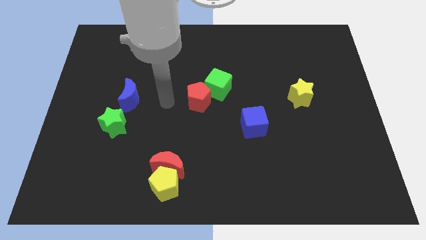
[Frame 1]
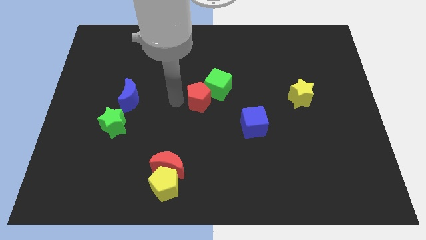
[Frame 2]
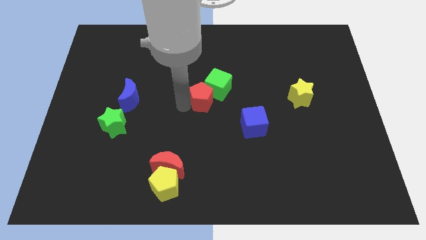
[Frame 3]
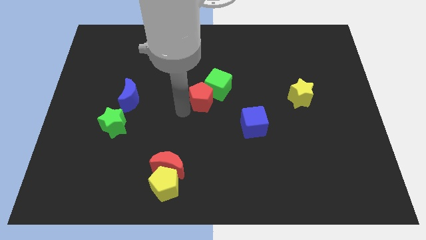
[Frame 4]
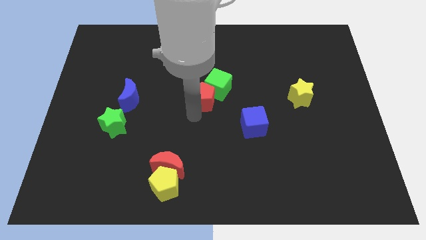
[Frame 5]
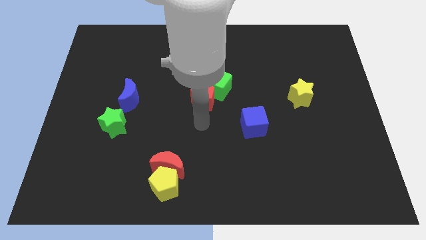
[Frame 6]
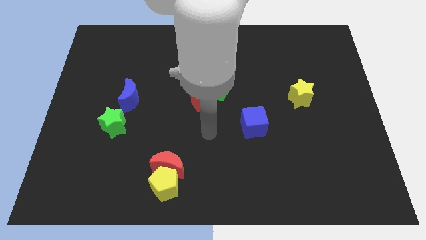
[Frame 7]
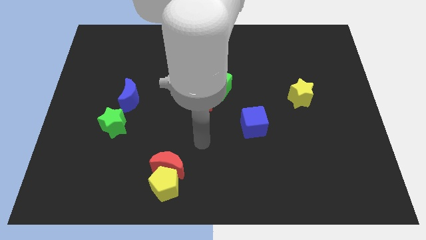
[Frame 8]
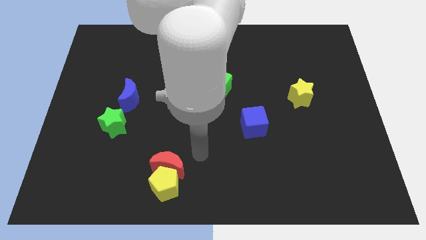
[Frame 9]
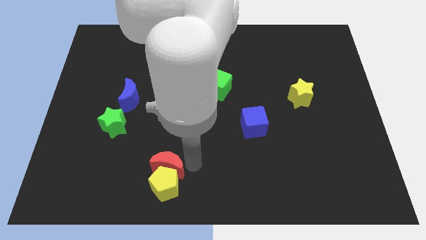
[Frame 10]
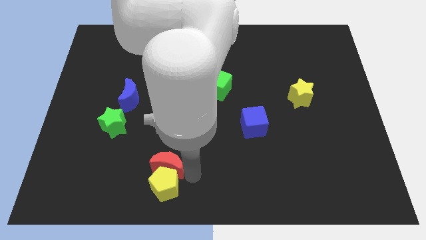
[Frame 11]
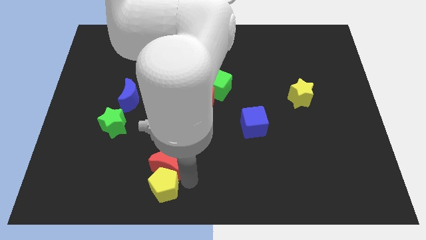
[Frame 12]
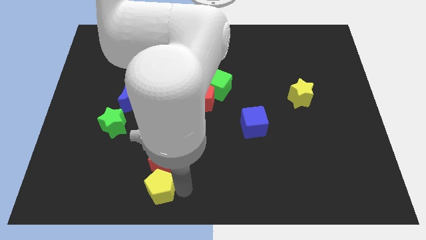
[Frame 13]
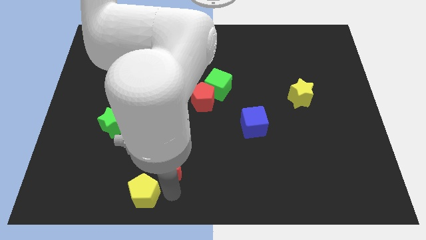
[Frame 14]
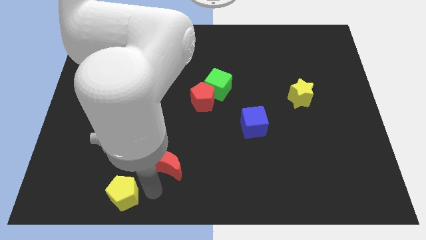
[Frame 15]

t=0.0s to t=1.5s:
pull the red moon apart from the yellow pentagon

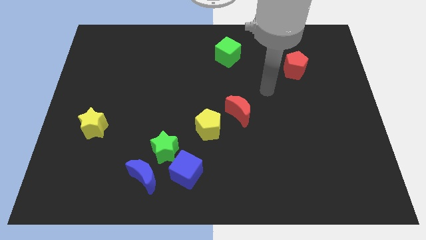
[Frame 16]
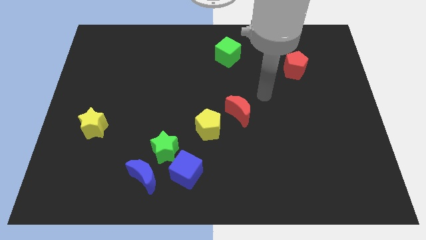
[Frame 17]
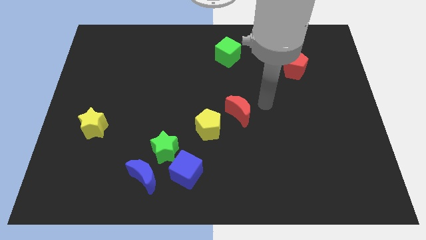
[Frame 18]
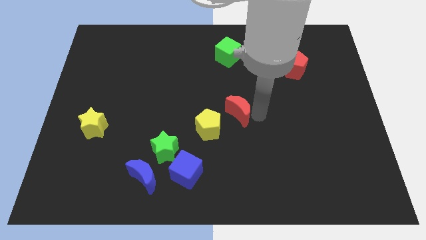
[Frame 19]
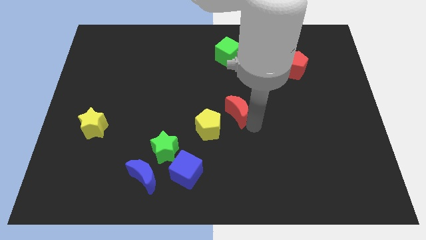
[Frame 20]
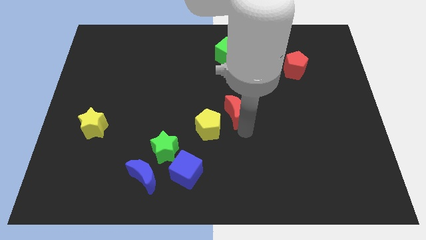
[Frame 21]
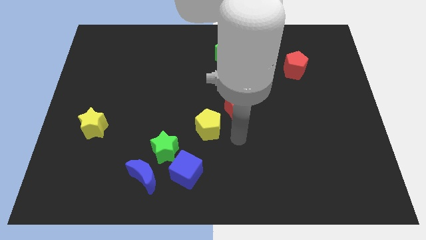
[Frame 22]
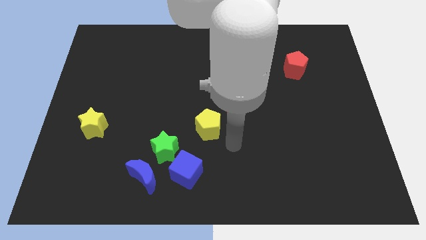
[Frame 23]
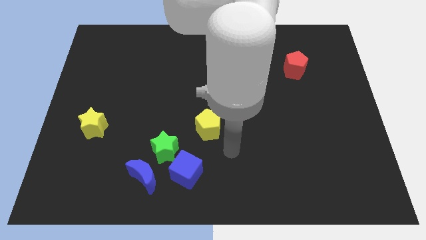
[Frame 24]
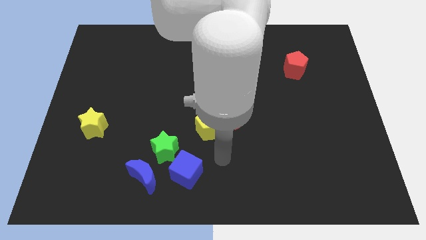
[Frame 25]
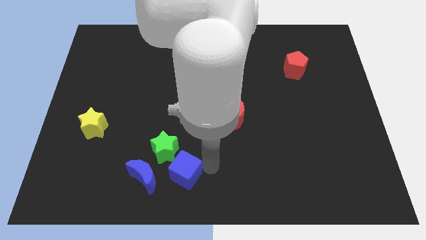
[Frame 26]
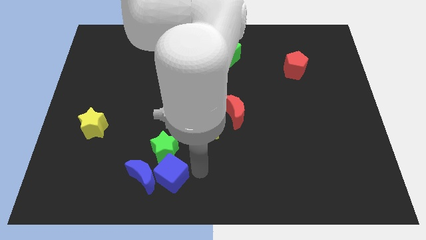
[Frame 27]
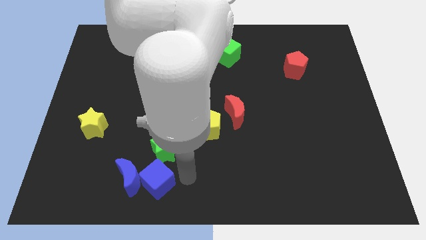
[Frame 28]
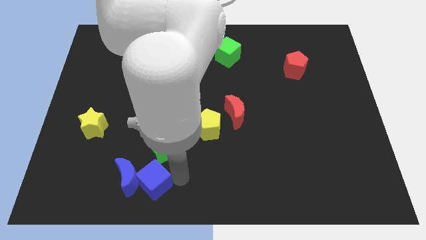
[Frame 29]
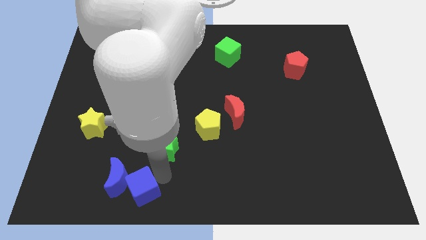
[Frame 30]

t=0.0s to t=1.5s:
separate the green star from the blue cube and blue moon

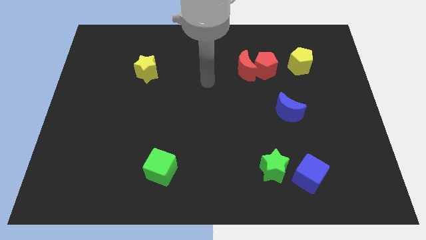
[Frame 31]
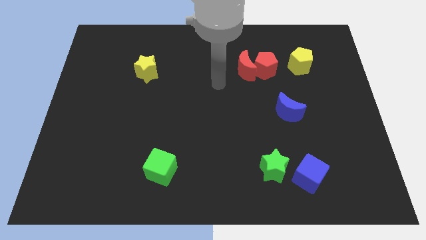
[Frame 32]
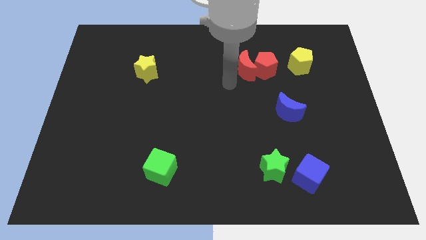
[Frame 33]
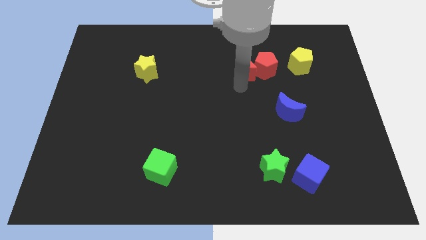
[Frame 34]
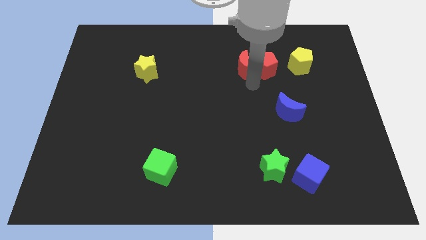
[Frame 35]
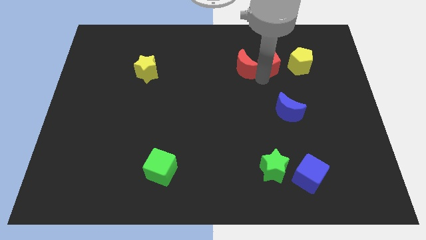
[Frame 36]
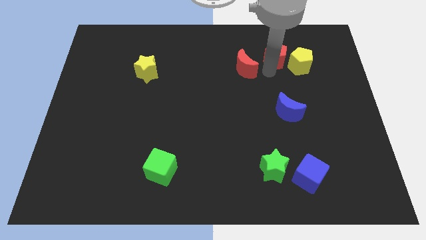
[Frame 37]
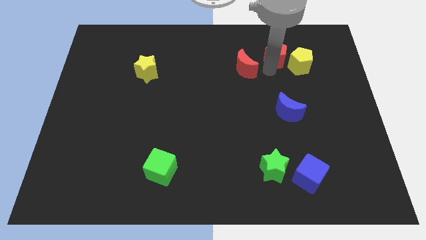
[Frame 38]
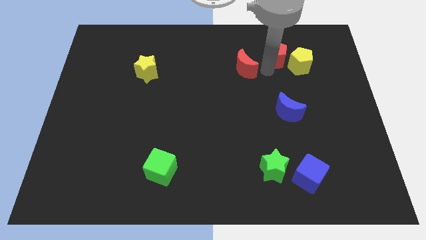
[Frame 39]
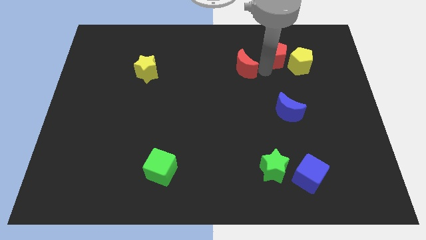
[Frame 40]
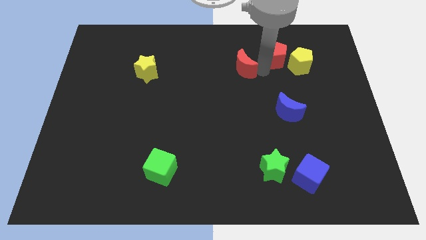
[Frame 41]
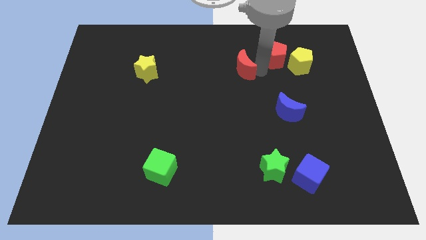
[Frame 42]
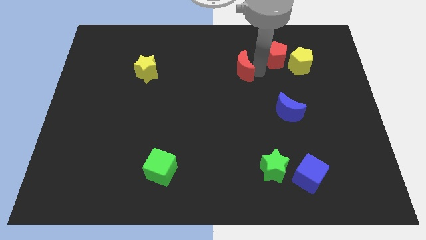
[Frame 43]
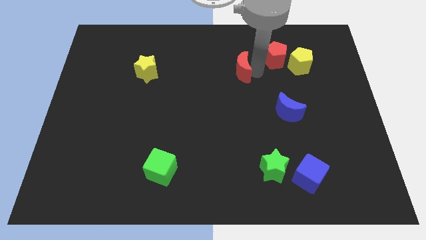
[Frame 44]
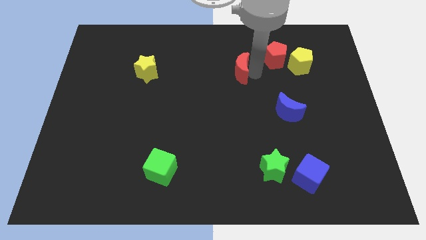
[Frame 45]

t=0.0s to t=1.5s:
separate the red moon from the red pentagon

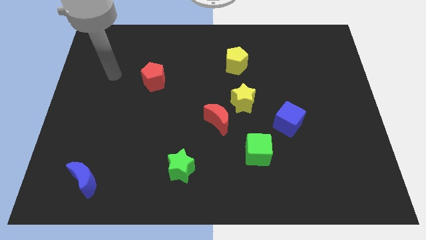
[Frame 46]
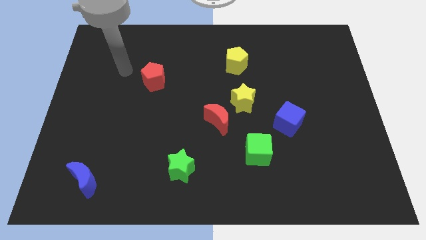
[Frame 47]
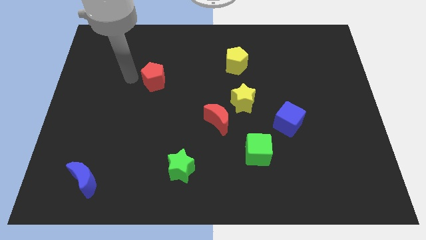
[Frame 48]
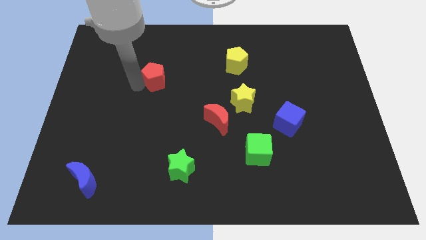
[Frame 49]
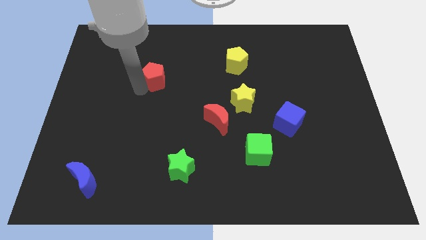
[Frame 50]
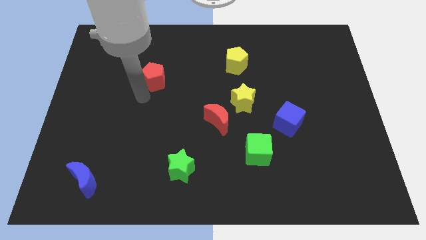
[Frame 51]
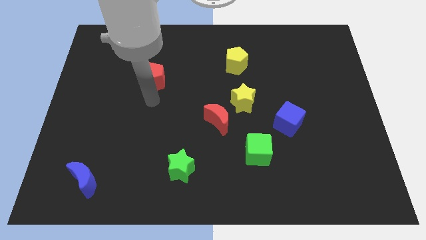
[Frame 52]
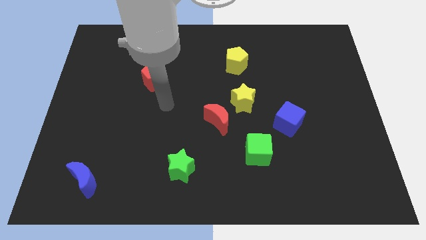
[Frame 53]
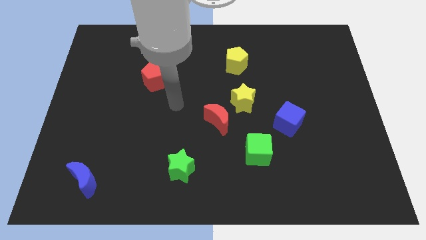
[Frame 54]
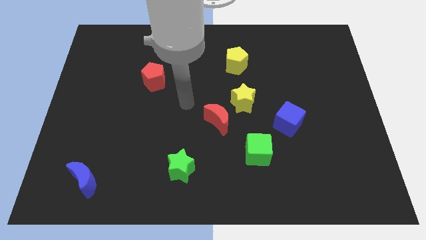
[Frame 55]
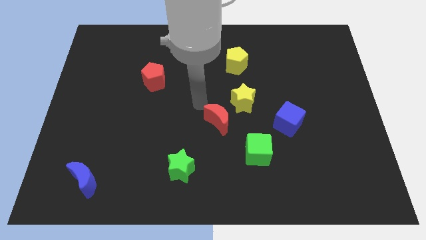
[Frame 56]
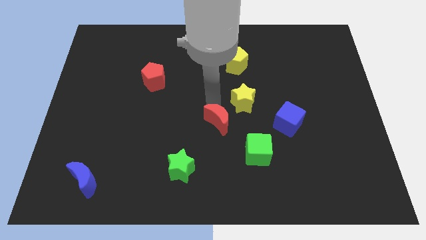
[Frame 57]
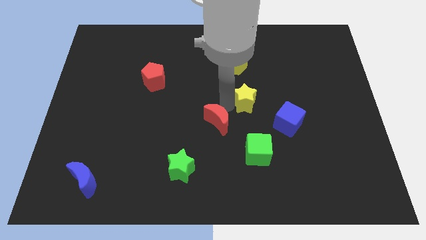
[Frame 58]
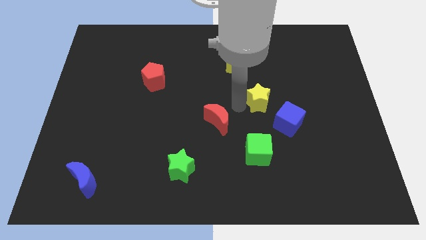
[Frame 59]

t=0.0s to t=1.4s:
pull the red moon apart from the yellow star

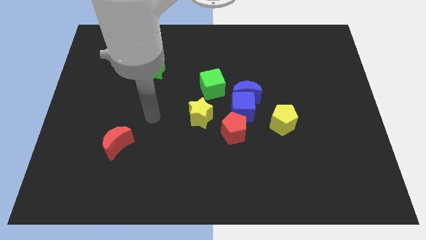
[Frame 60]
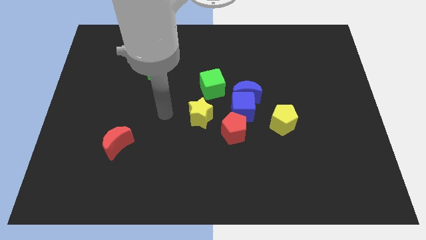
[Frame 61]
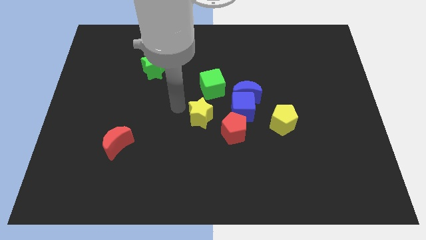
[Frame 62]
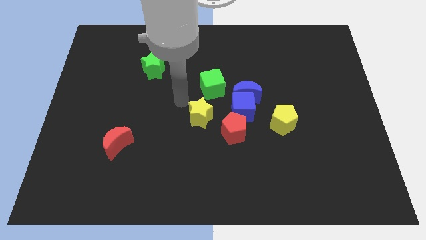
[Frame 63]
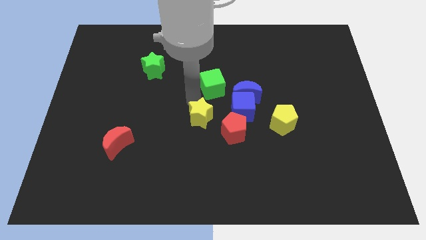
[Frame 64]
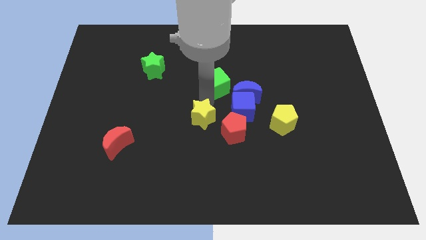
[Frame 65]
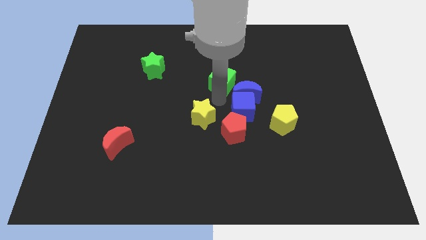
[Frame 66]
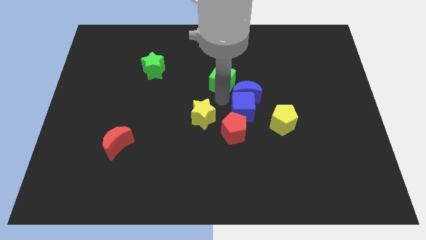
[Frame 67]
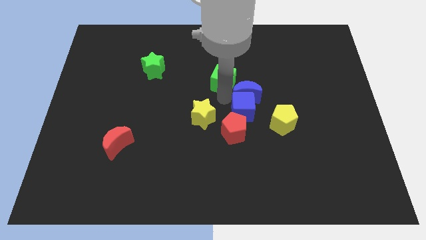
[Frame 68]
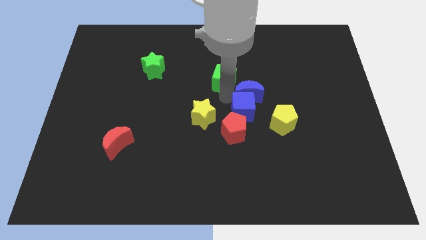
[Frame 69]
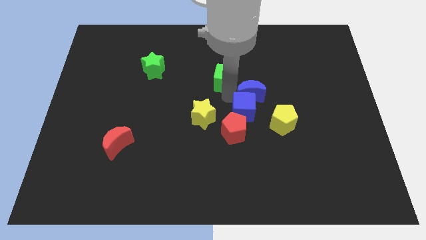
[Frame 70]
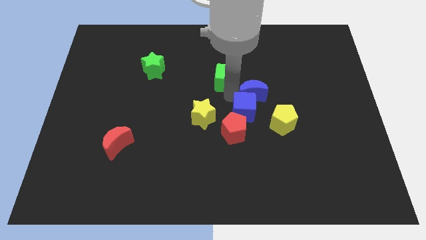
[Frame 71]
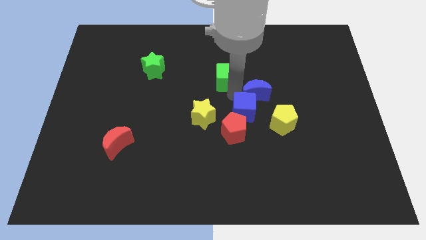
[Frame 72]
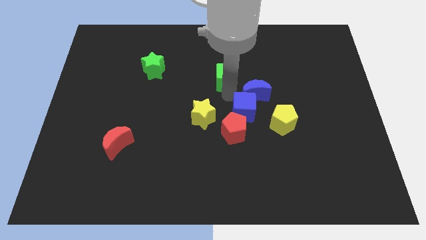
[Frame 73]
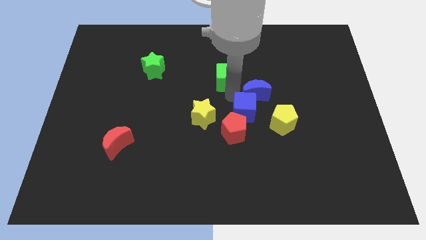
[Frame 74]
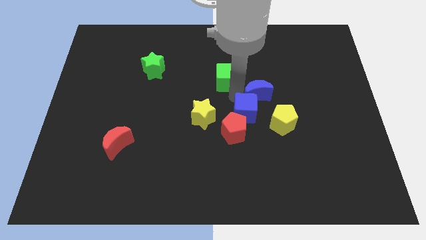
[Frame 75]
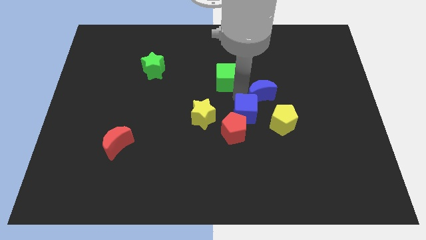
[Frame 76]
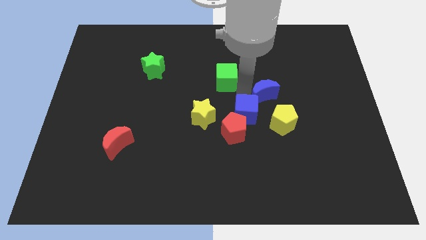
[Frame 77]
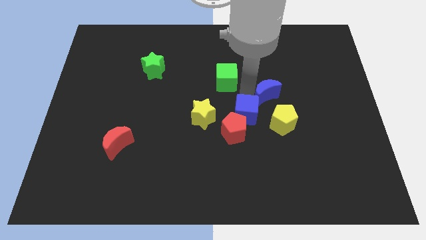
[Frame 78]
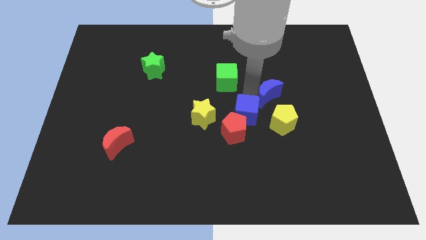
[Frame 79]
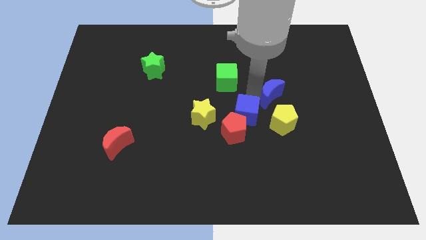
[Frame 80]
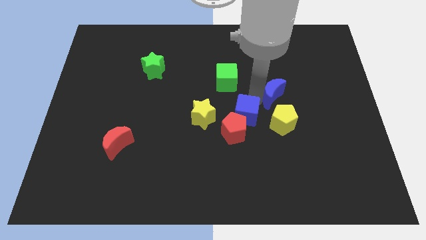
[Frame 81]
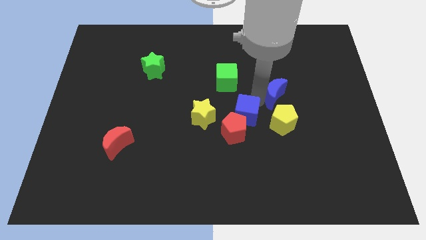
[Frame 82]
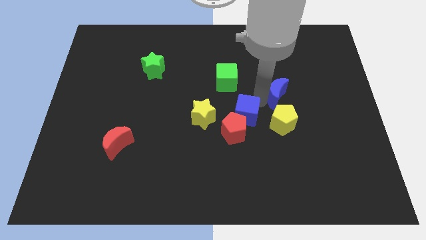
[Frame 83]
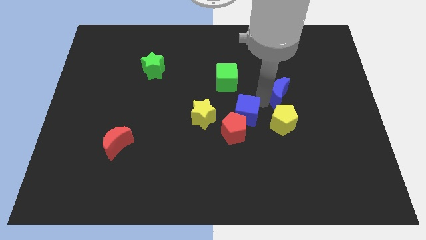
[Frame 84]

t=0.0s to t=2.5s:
move the blue moon away from the blue cube and green cube

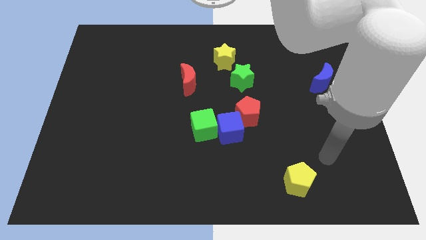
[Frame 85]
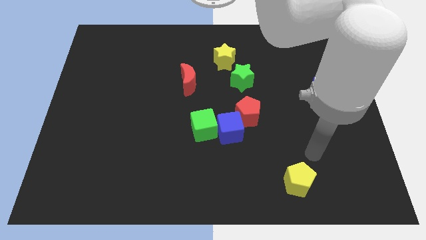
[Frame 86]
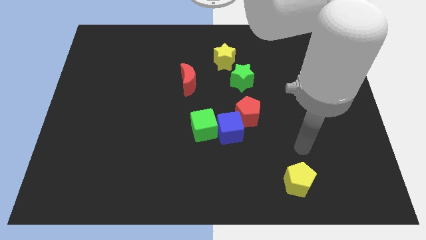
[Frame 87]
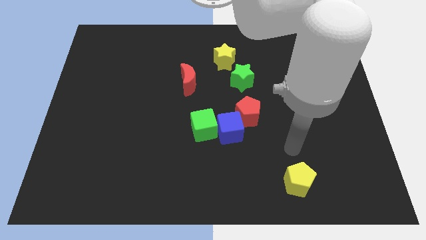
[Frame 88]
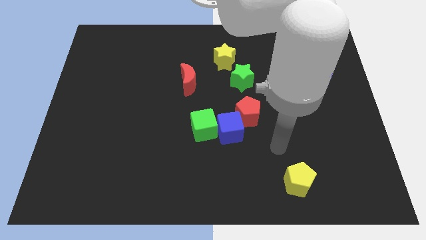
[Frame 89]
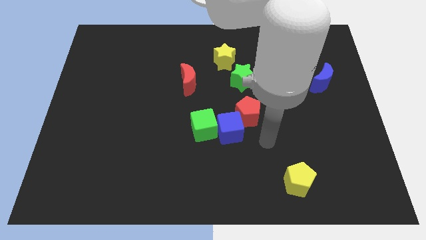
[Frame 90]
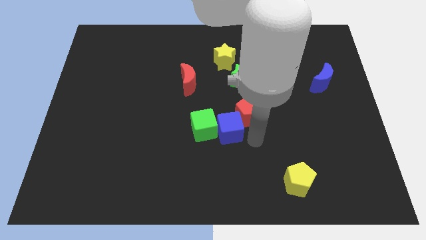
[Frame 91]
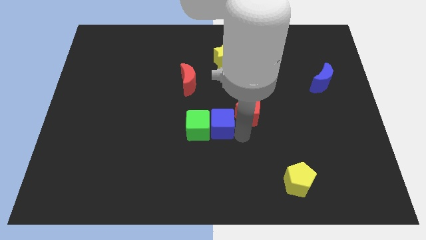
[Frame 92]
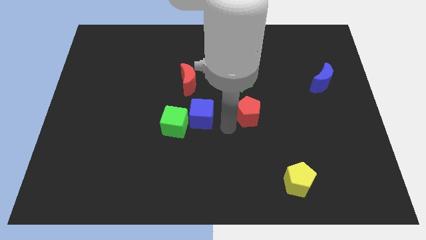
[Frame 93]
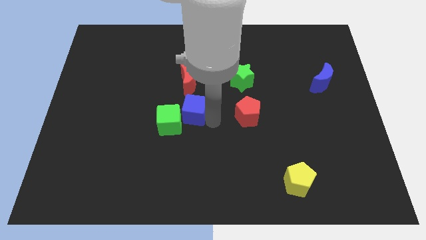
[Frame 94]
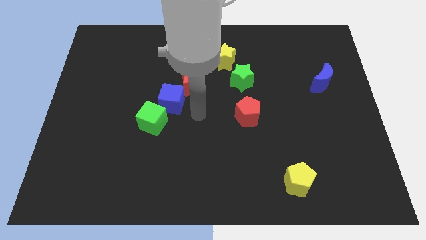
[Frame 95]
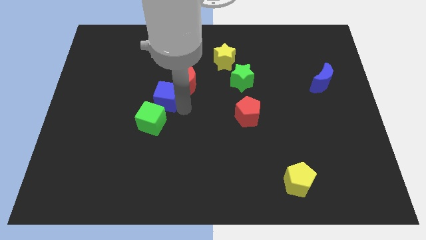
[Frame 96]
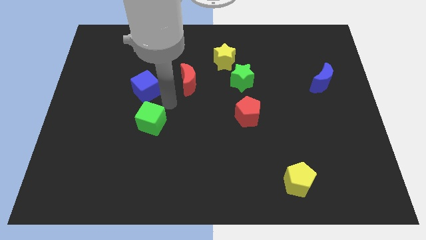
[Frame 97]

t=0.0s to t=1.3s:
move the green cube away from the blue cube
